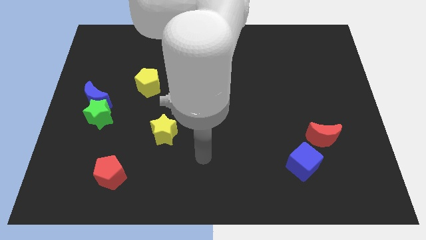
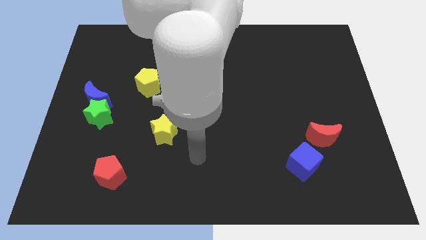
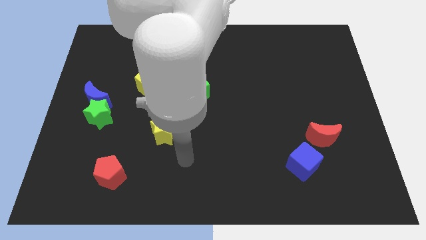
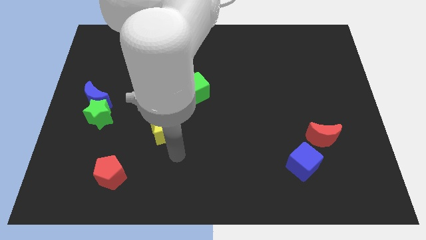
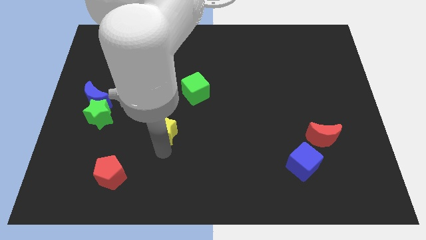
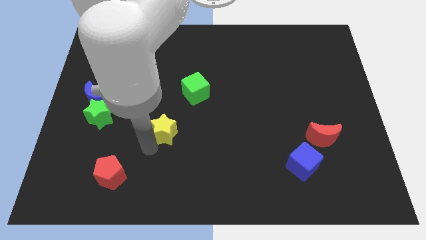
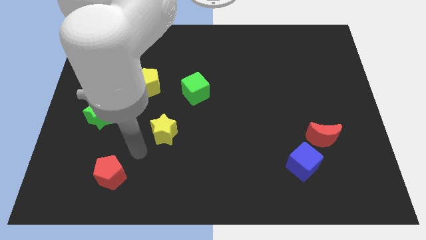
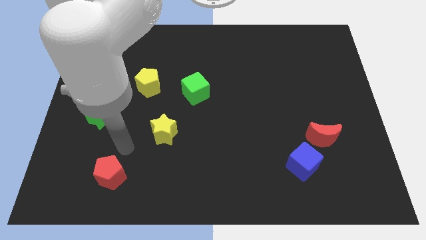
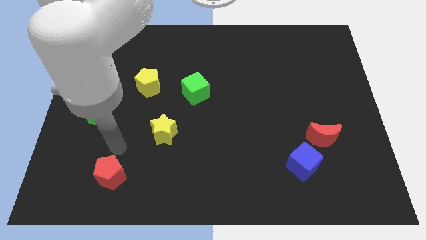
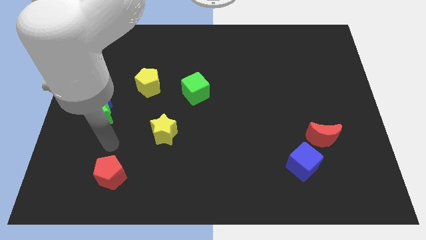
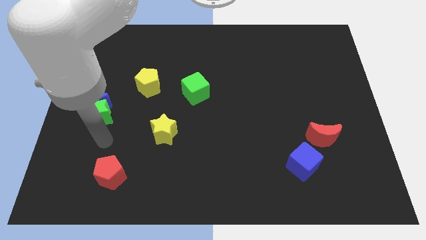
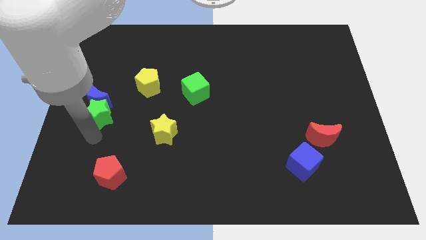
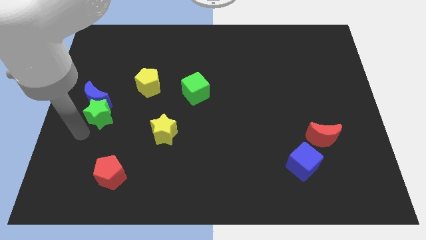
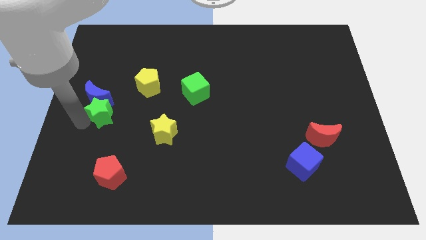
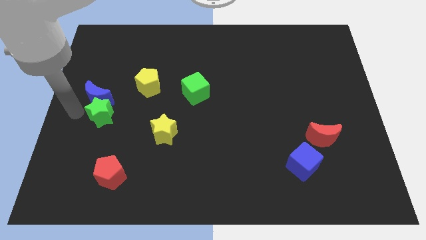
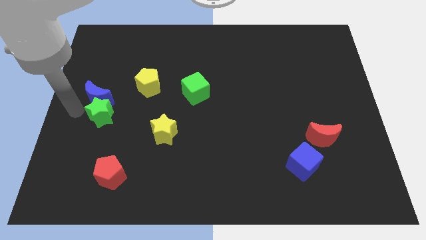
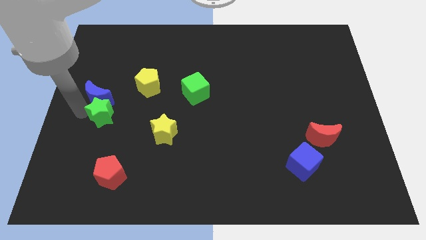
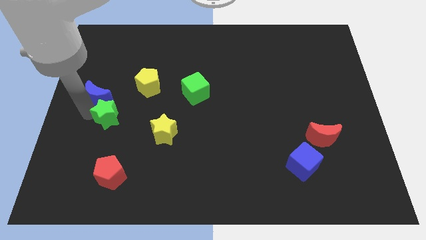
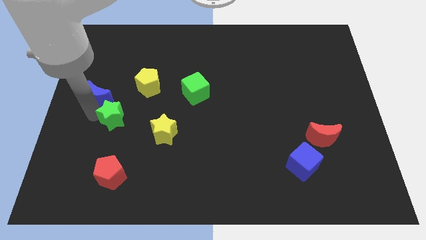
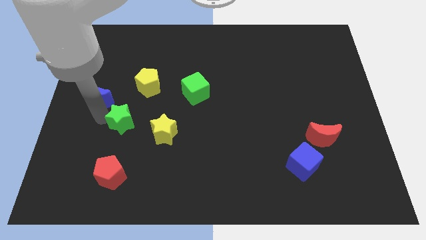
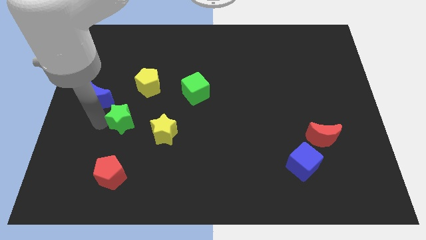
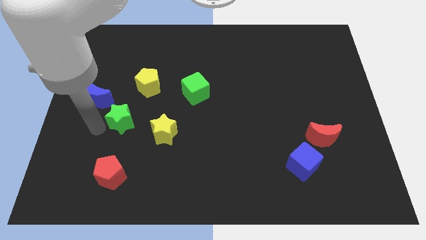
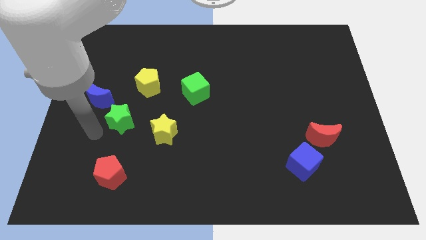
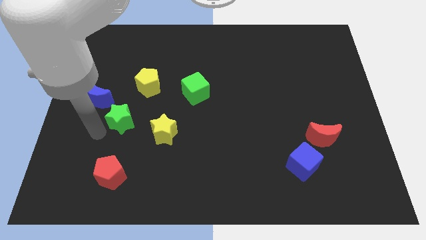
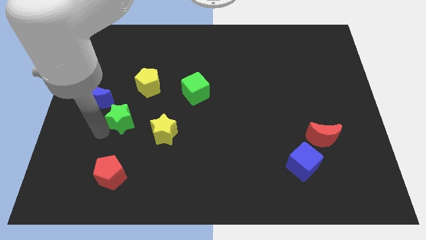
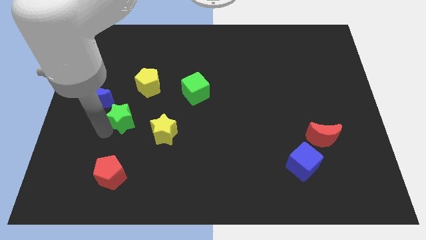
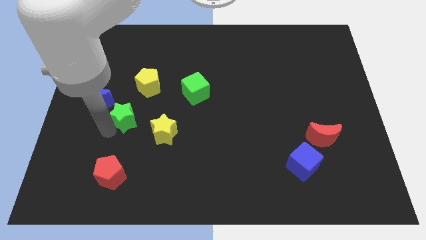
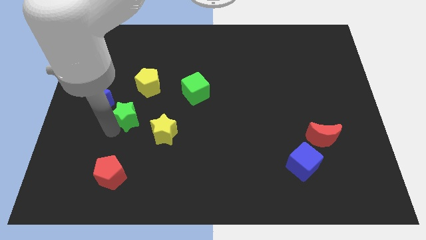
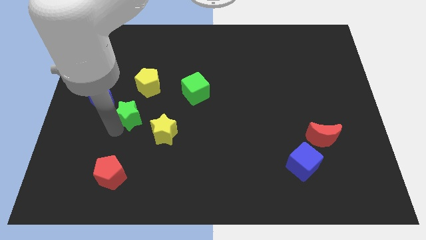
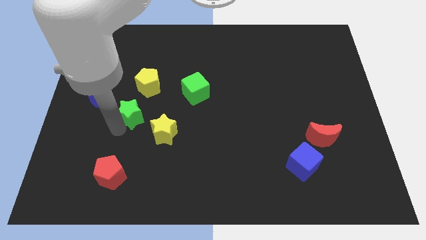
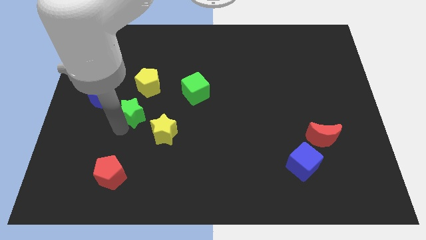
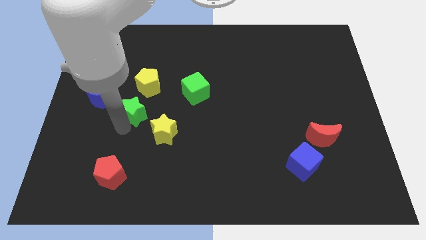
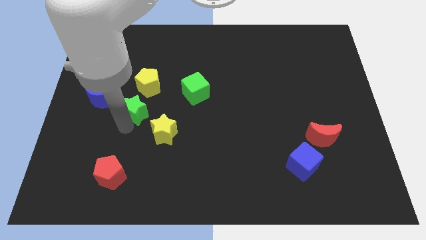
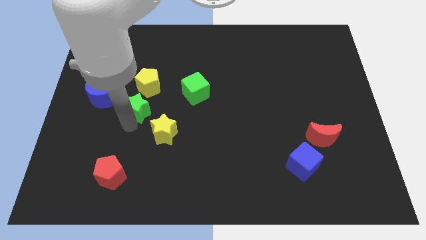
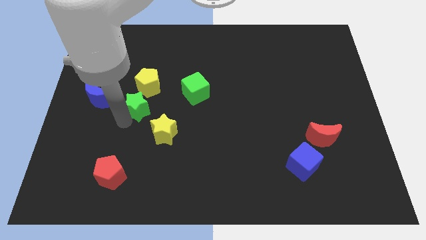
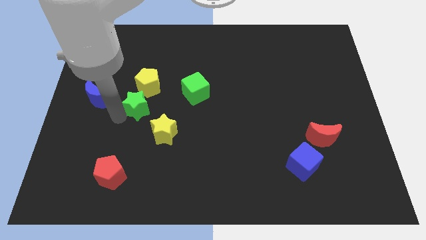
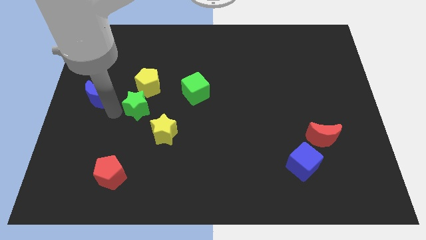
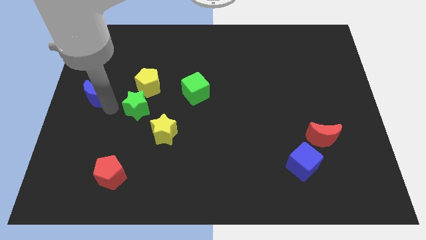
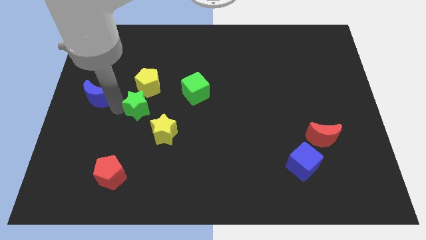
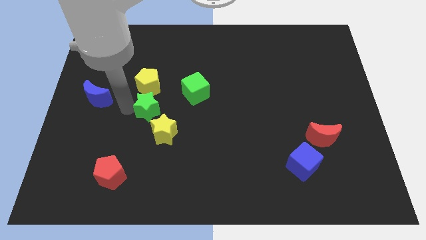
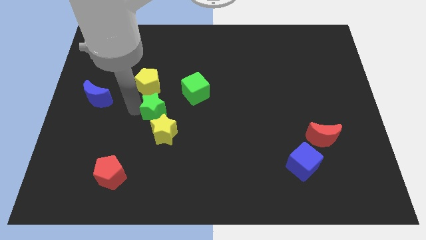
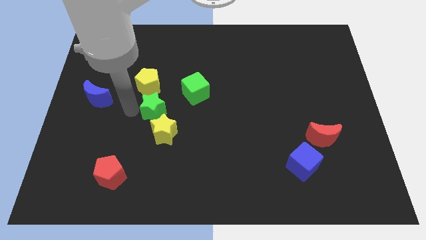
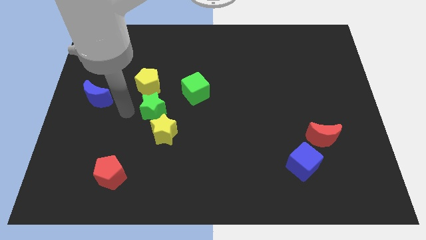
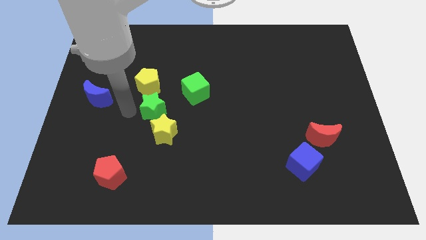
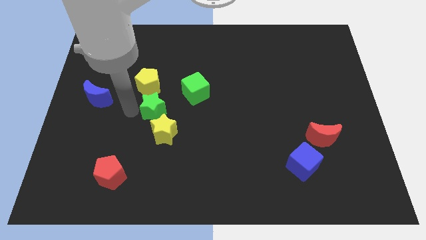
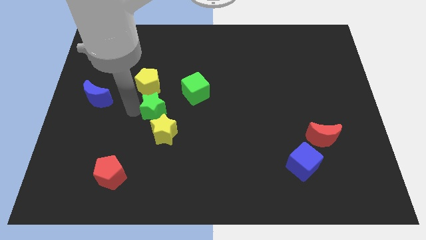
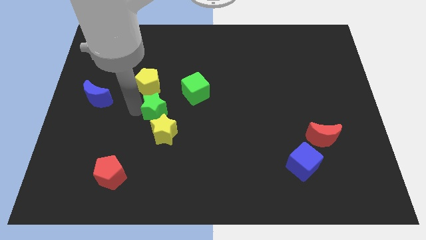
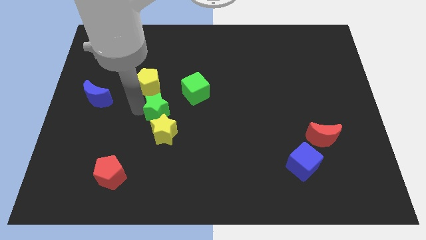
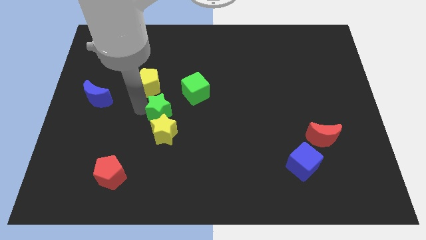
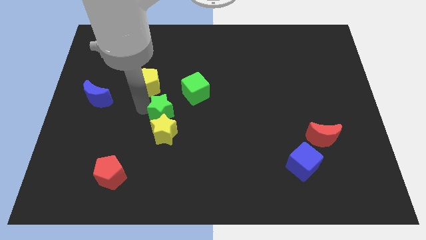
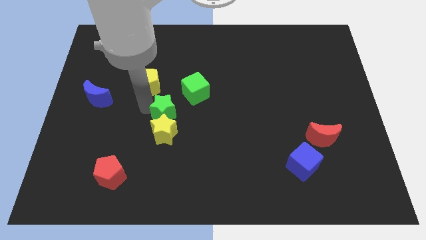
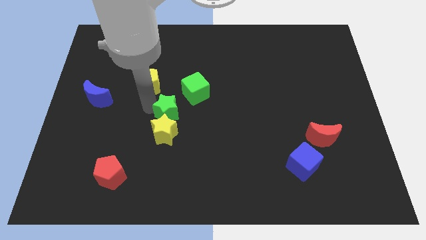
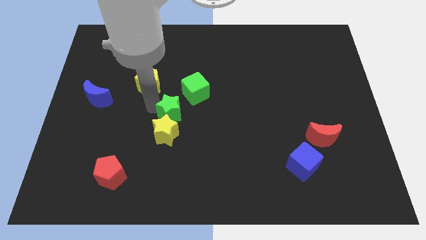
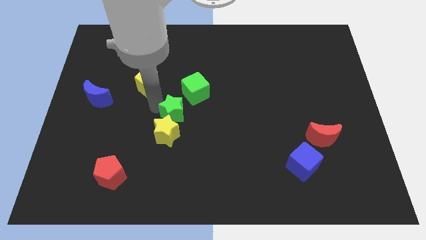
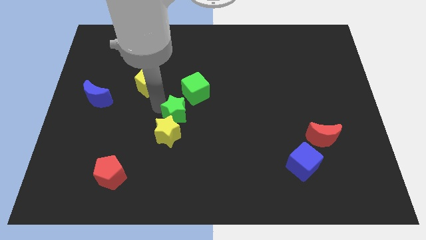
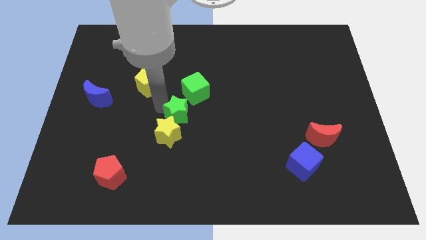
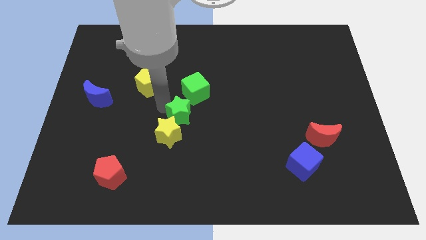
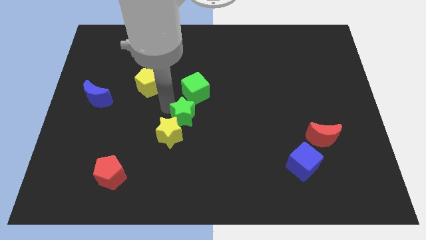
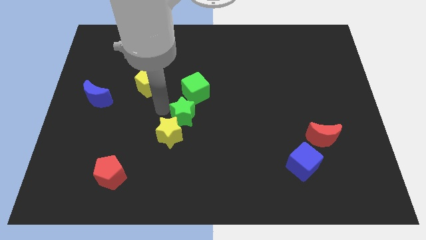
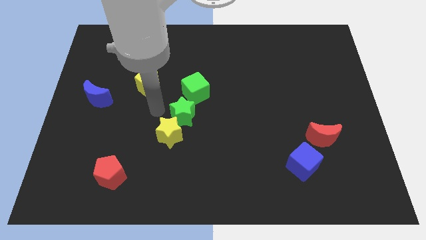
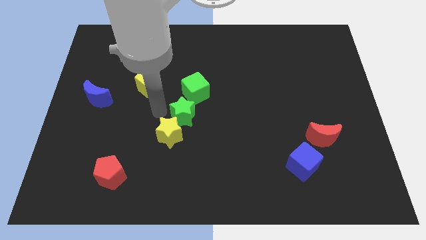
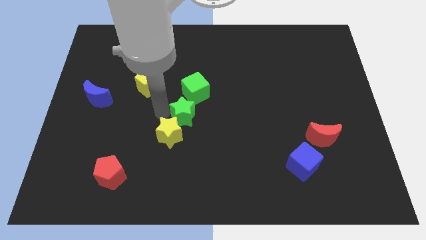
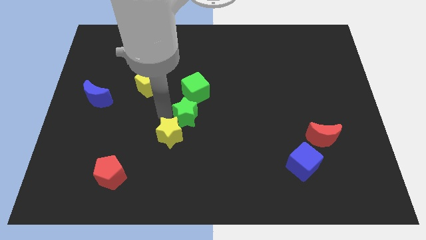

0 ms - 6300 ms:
push the green star right

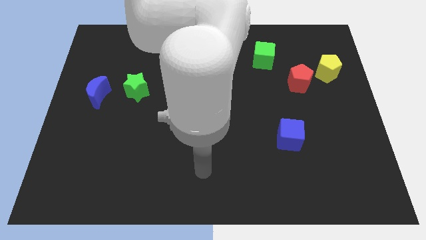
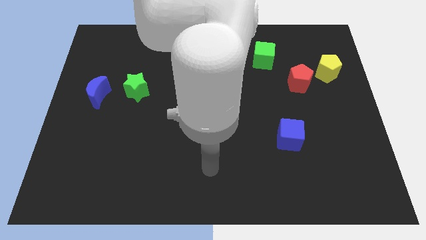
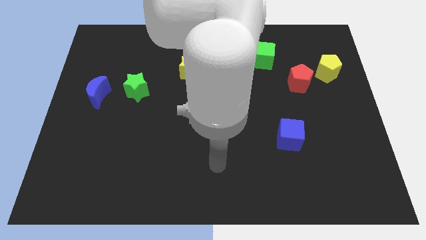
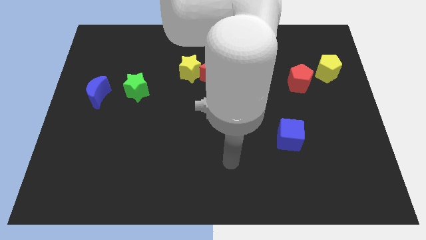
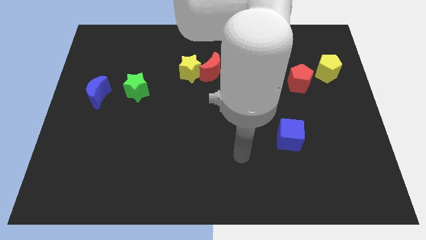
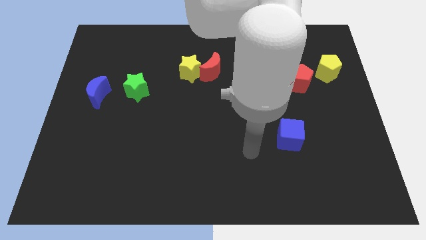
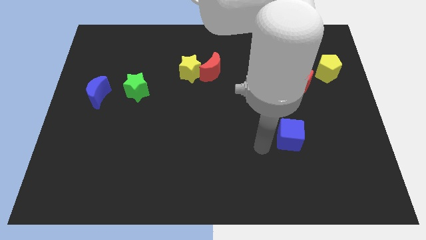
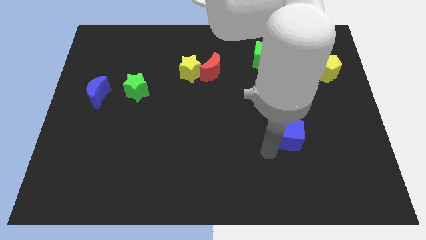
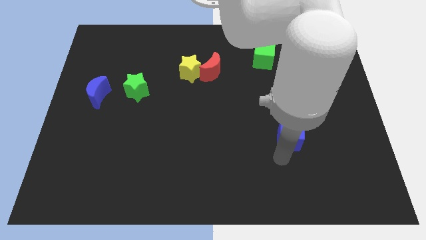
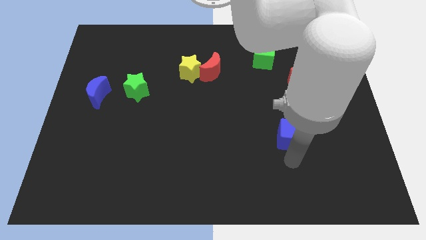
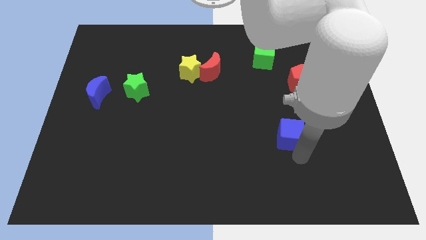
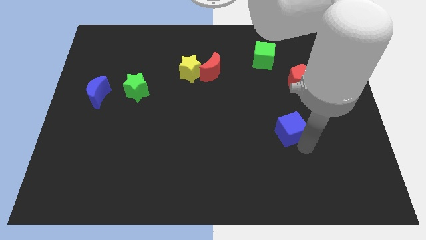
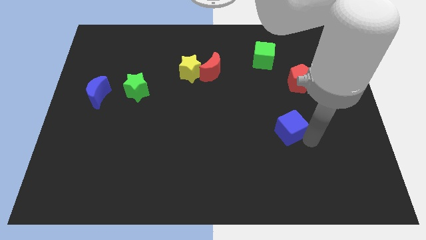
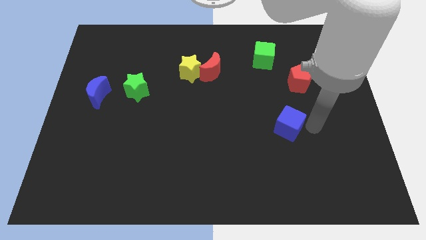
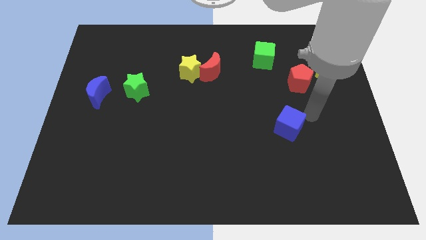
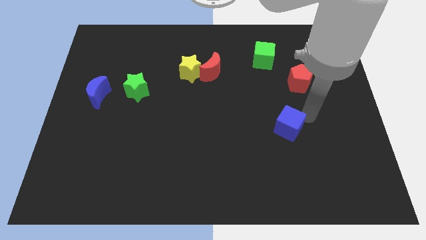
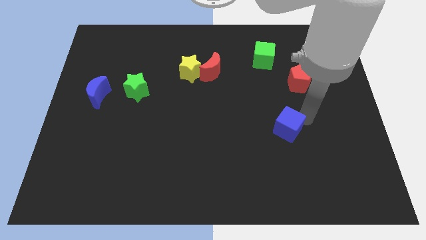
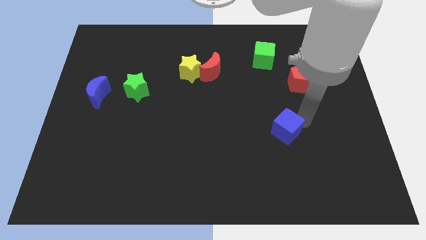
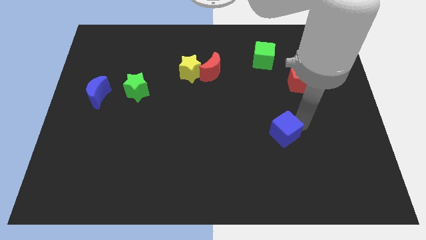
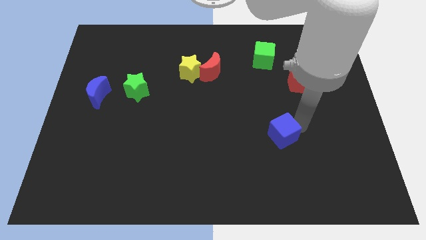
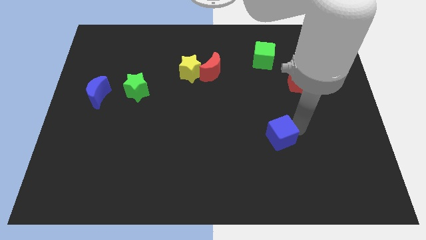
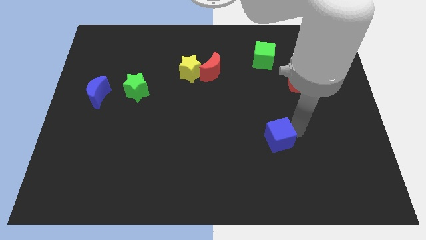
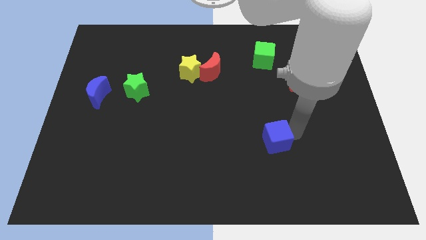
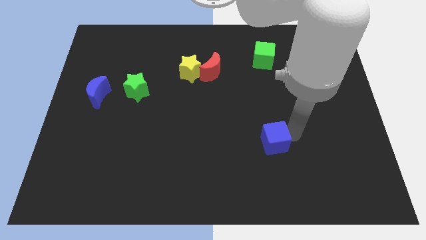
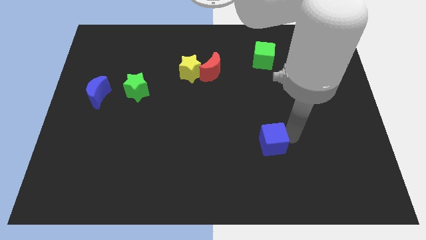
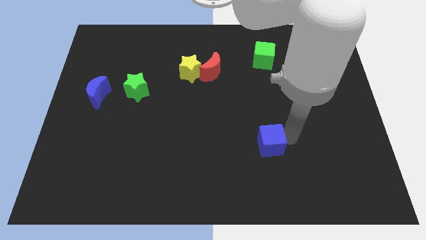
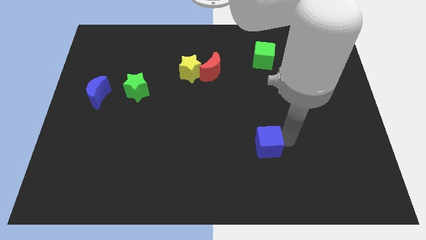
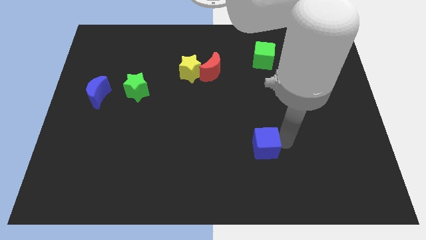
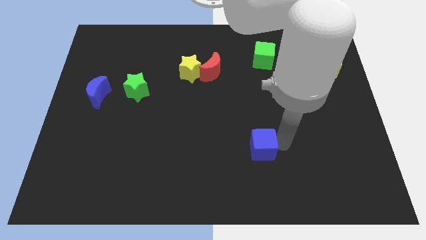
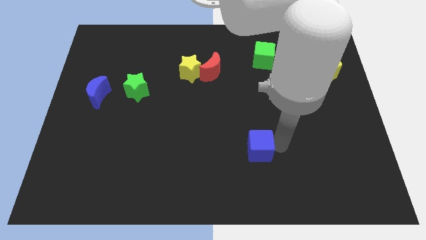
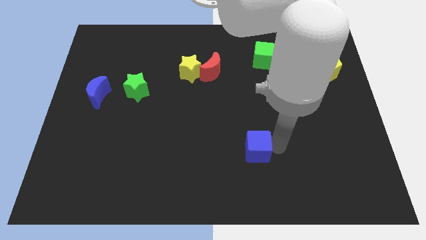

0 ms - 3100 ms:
slightly slide the blue cube to the left
